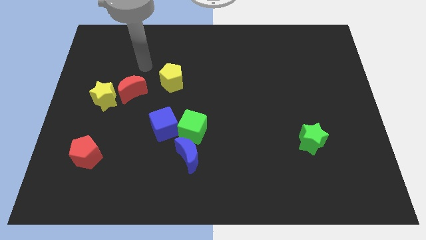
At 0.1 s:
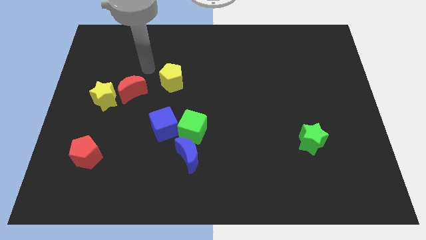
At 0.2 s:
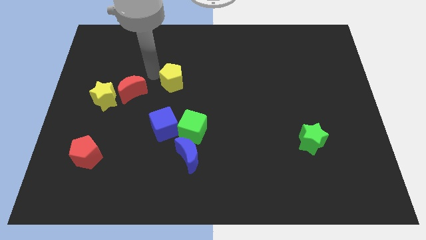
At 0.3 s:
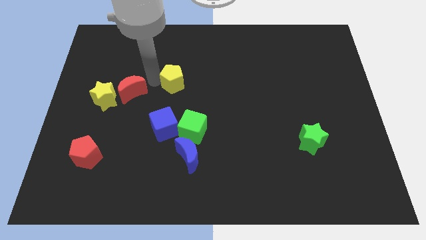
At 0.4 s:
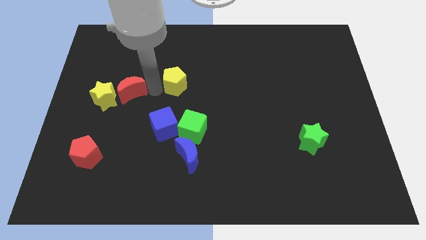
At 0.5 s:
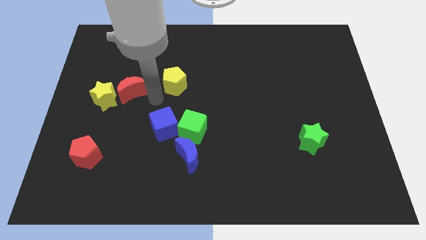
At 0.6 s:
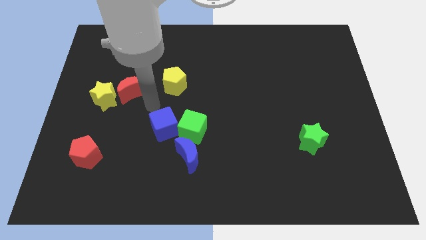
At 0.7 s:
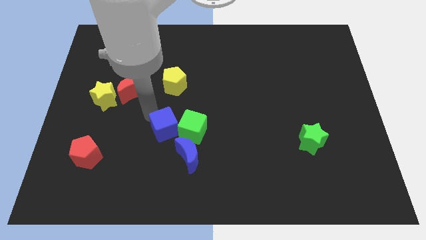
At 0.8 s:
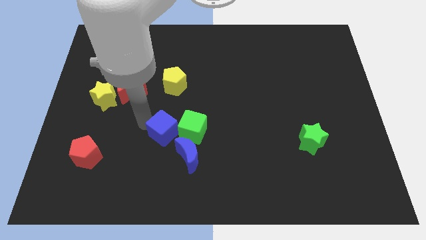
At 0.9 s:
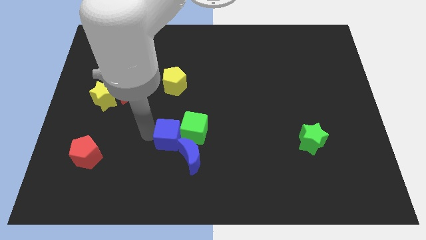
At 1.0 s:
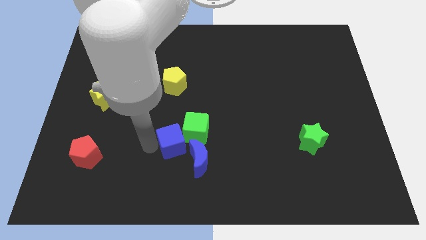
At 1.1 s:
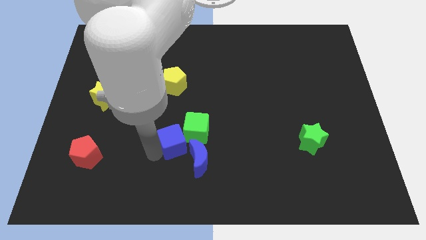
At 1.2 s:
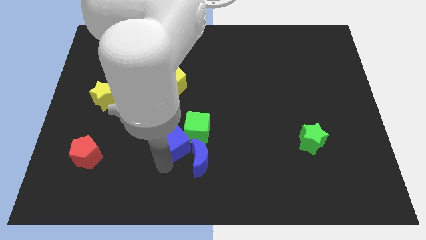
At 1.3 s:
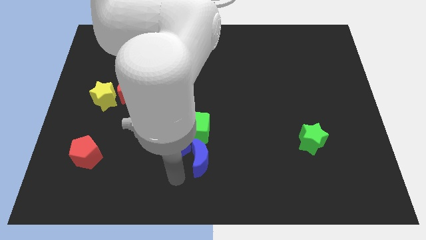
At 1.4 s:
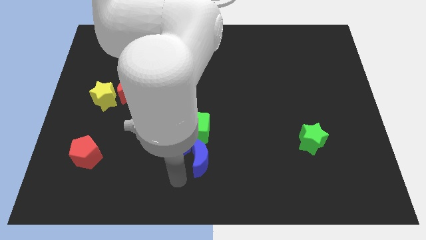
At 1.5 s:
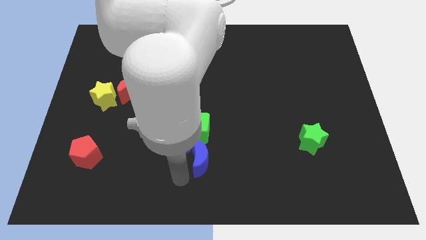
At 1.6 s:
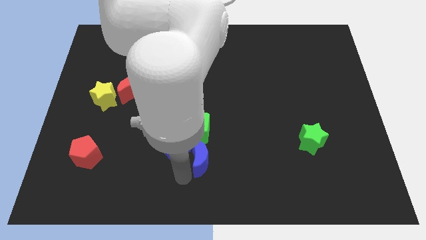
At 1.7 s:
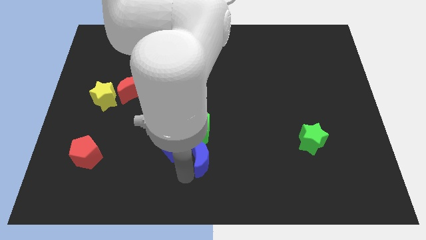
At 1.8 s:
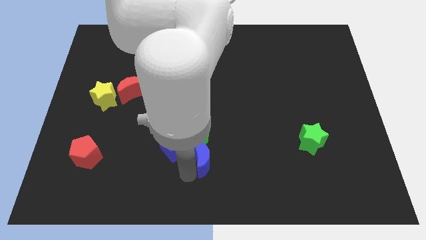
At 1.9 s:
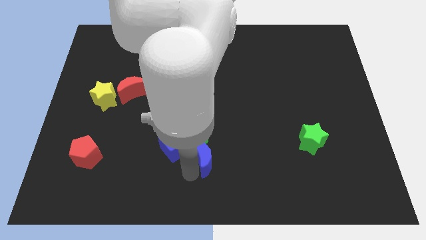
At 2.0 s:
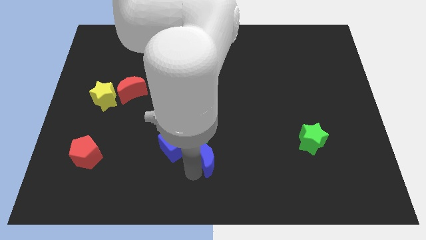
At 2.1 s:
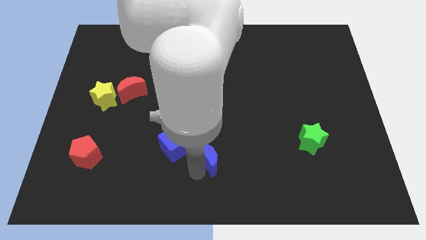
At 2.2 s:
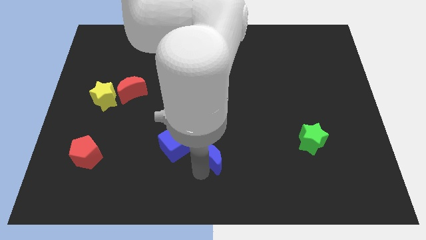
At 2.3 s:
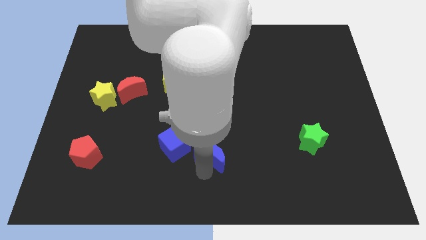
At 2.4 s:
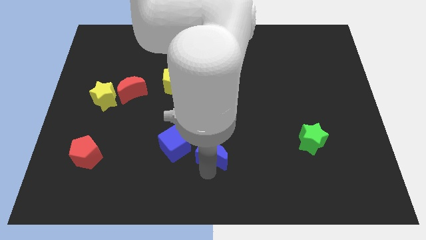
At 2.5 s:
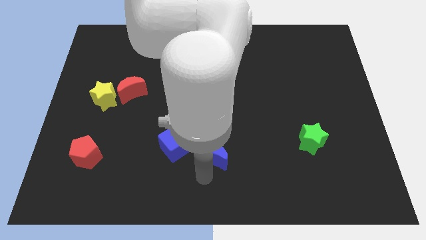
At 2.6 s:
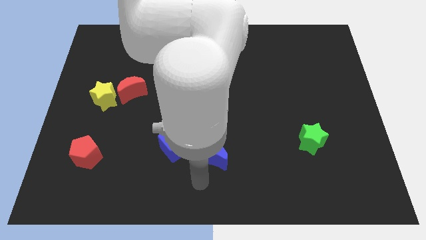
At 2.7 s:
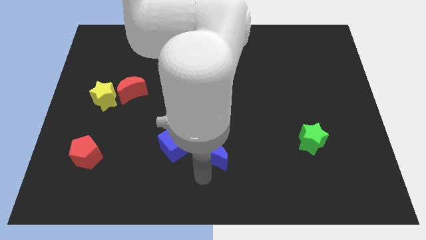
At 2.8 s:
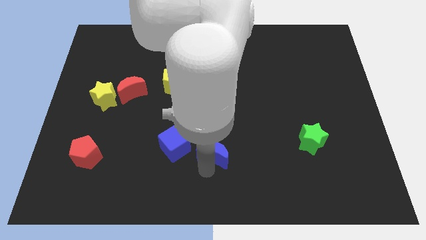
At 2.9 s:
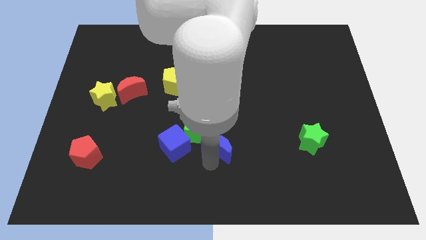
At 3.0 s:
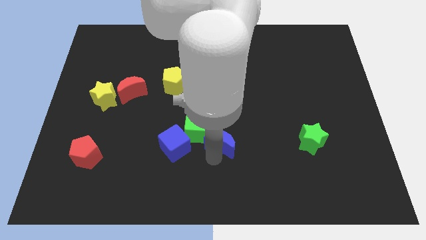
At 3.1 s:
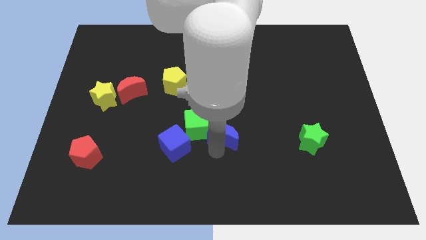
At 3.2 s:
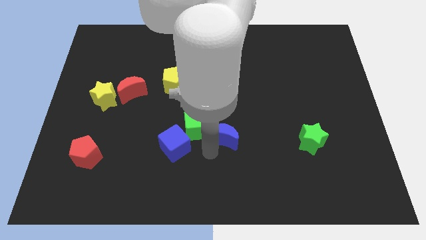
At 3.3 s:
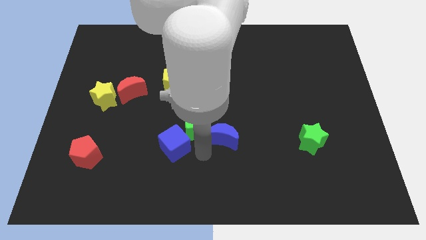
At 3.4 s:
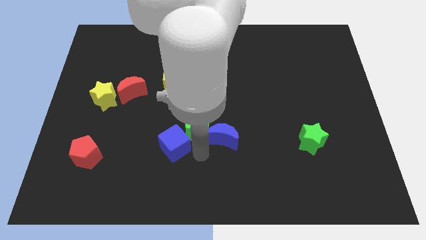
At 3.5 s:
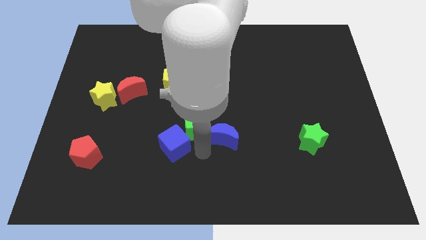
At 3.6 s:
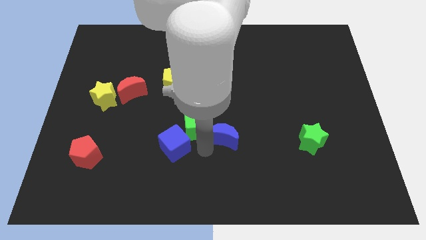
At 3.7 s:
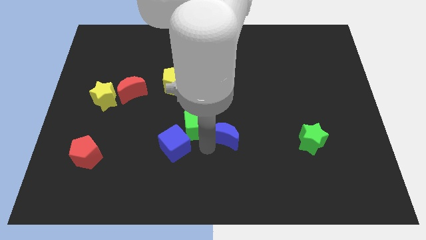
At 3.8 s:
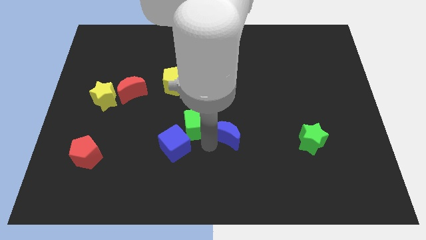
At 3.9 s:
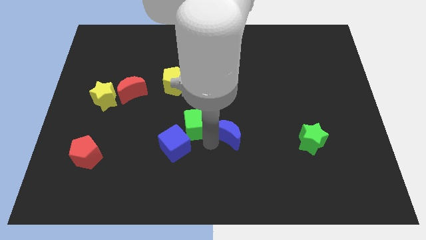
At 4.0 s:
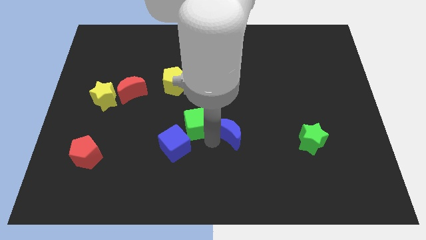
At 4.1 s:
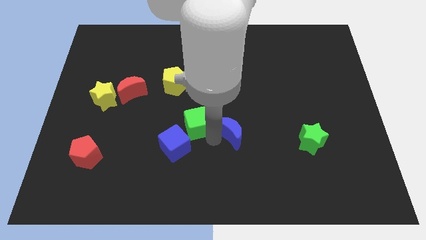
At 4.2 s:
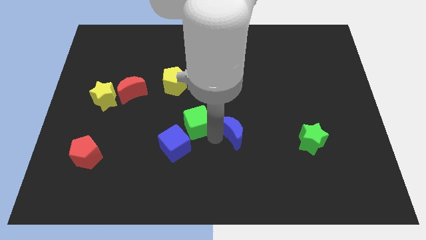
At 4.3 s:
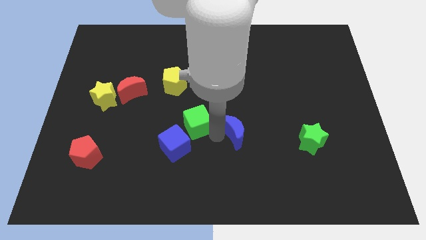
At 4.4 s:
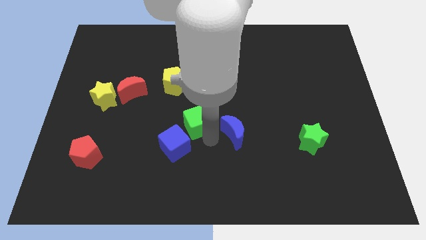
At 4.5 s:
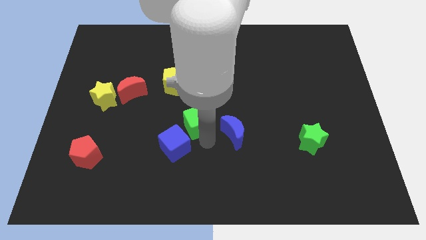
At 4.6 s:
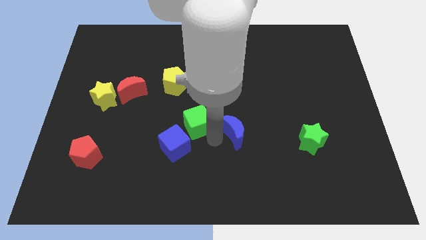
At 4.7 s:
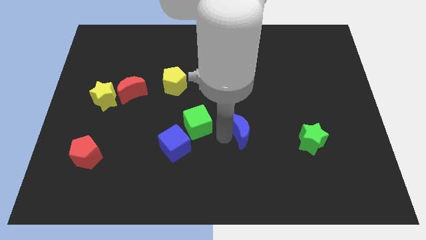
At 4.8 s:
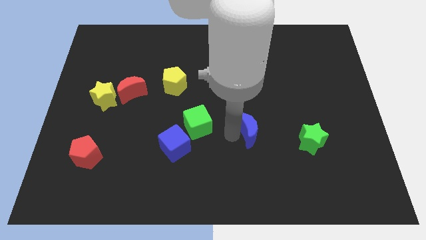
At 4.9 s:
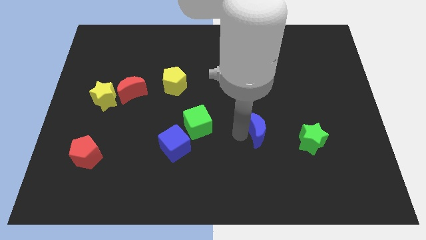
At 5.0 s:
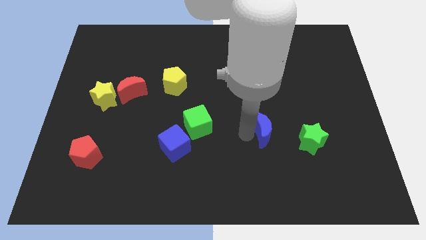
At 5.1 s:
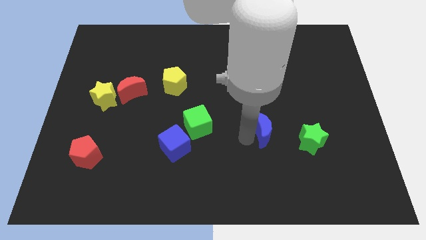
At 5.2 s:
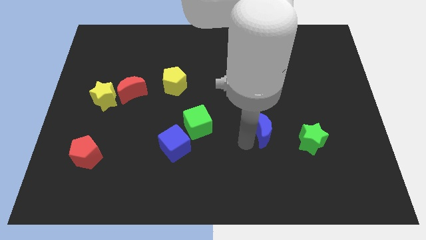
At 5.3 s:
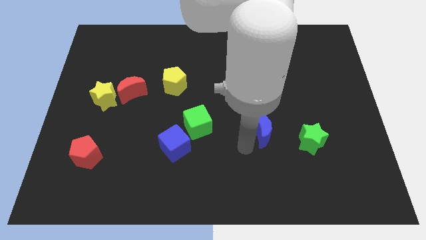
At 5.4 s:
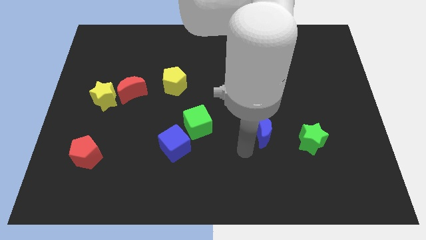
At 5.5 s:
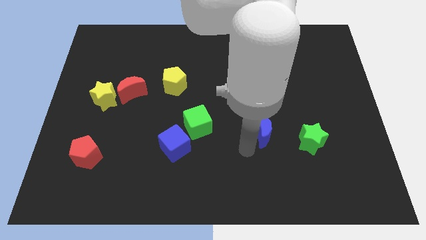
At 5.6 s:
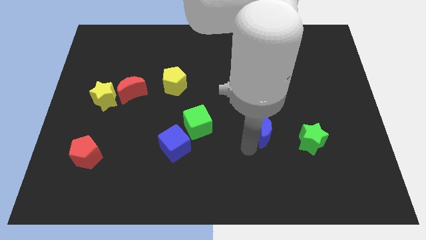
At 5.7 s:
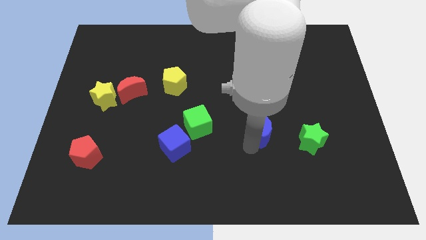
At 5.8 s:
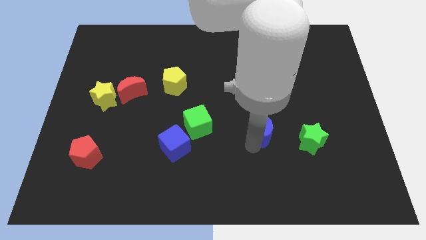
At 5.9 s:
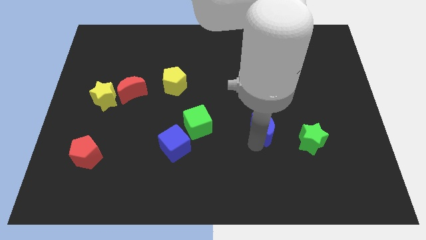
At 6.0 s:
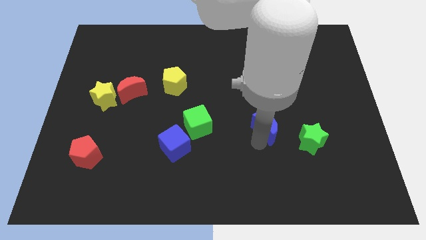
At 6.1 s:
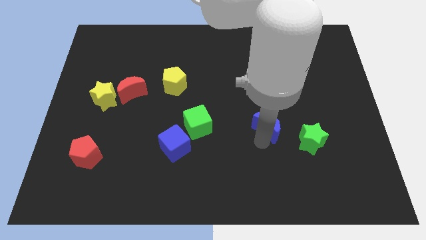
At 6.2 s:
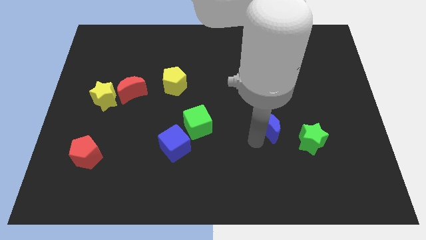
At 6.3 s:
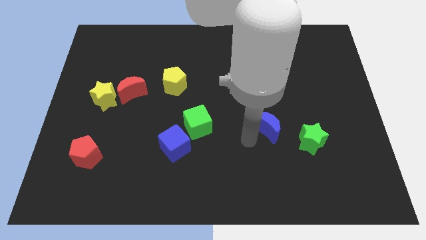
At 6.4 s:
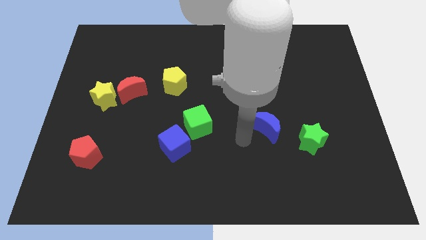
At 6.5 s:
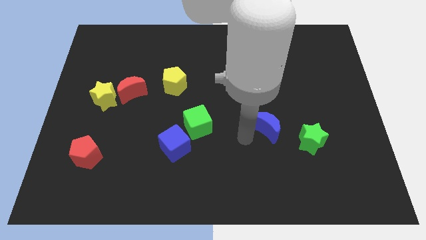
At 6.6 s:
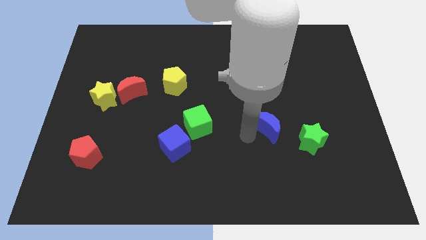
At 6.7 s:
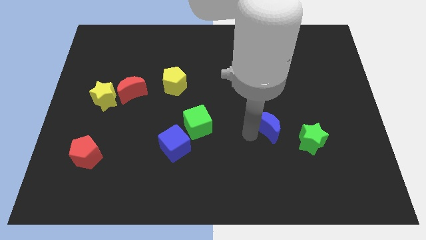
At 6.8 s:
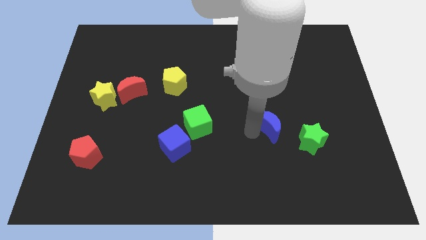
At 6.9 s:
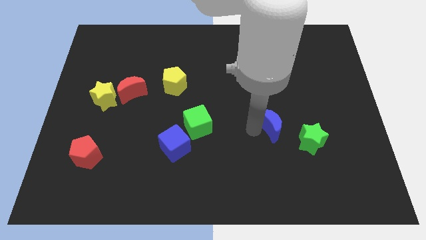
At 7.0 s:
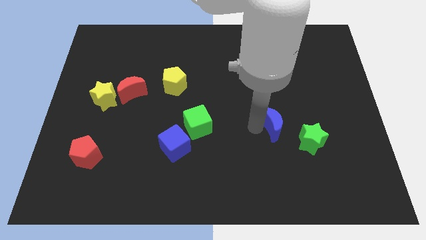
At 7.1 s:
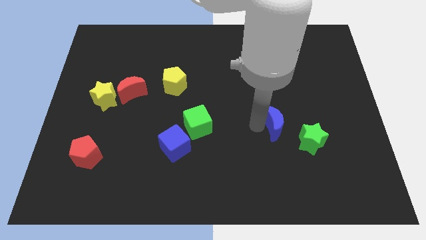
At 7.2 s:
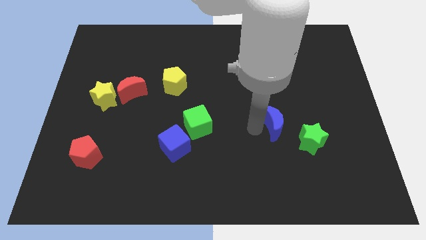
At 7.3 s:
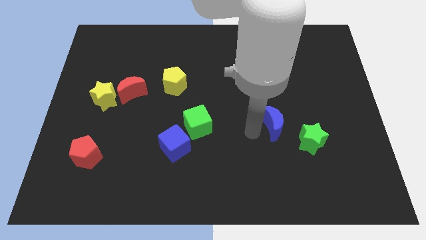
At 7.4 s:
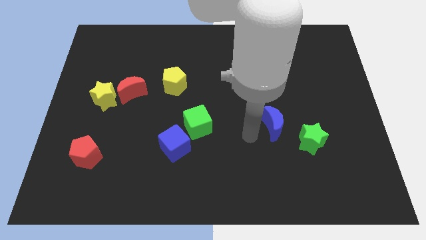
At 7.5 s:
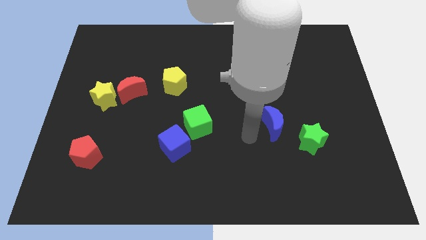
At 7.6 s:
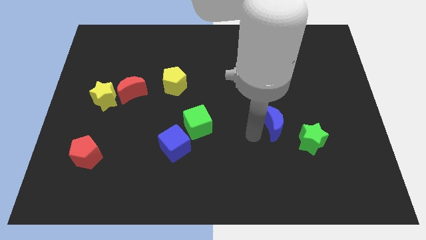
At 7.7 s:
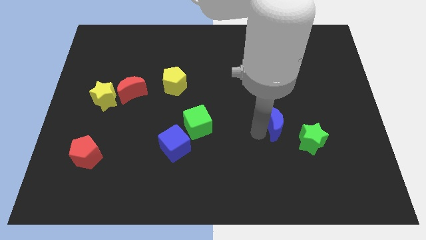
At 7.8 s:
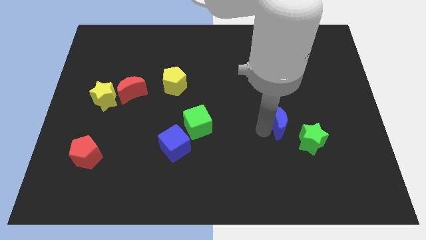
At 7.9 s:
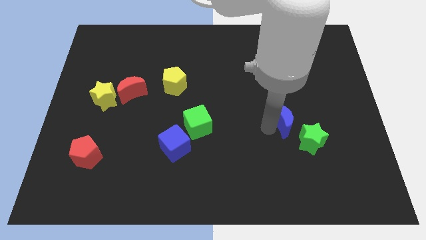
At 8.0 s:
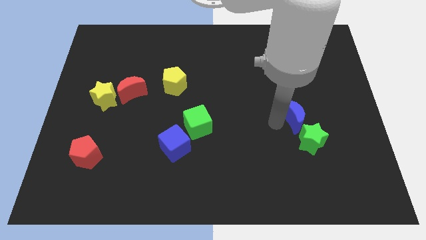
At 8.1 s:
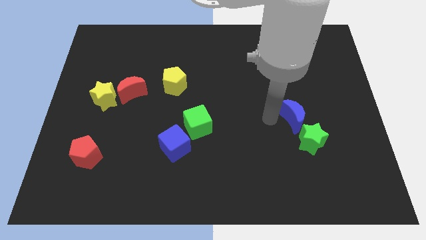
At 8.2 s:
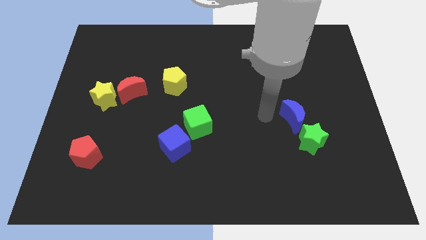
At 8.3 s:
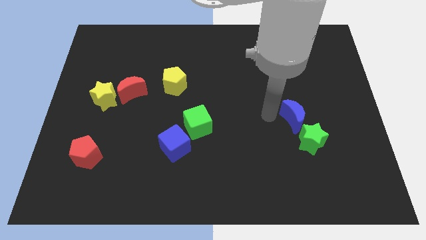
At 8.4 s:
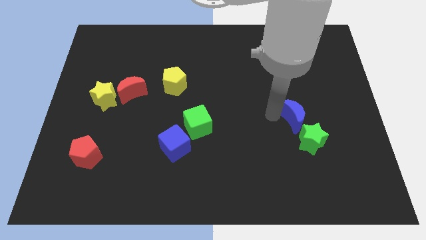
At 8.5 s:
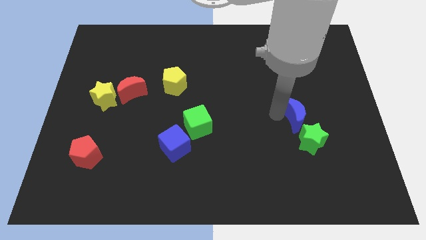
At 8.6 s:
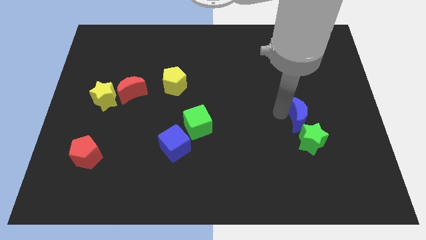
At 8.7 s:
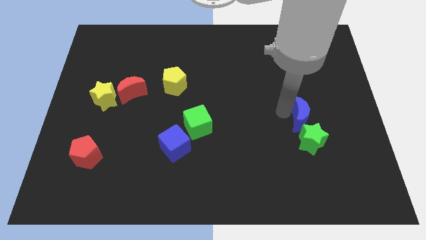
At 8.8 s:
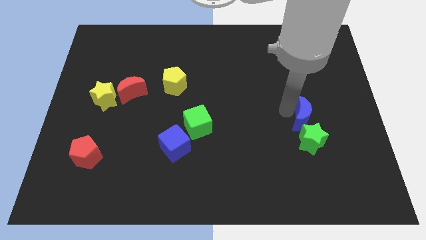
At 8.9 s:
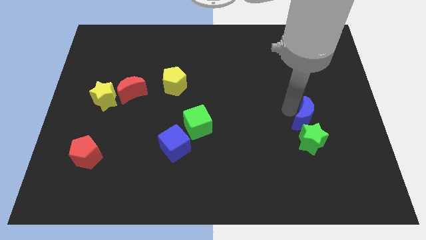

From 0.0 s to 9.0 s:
move the blue moon to the top right of the green star
